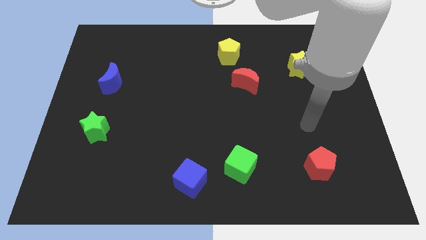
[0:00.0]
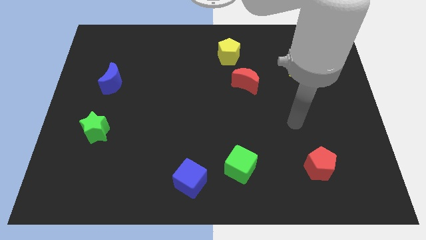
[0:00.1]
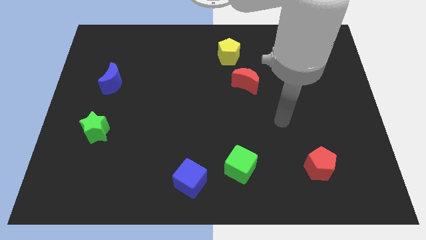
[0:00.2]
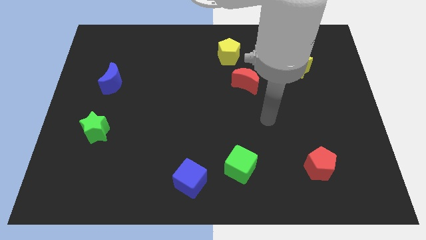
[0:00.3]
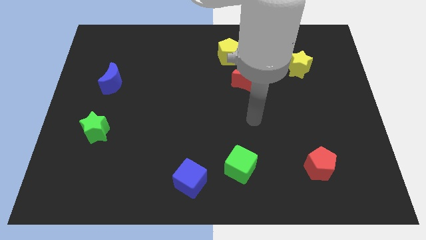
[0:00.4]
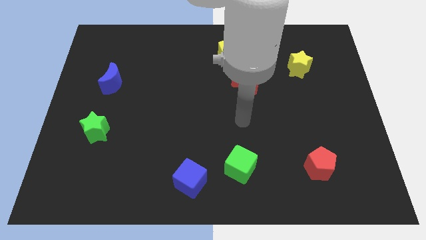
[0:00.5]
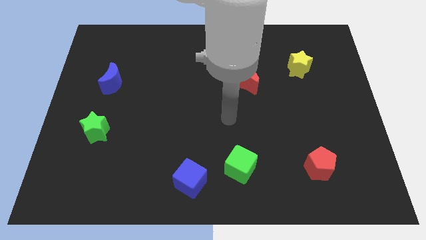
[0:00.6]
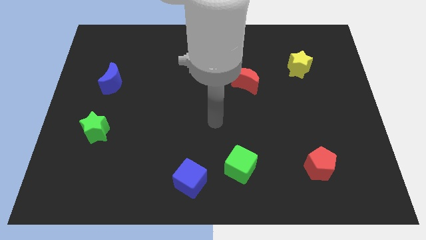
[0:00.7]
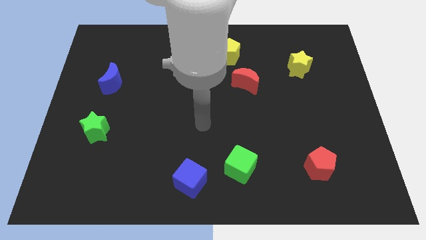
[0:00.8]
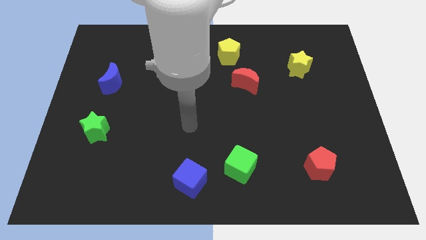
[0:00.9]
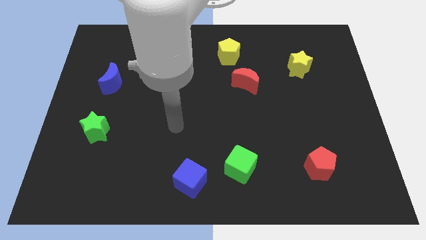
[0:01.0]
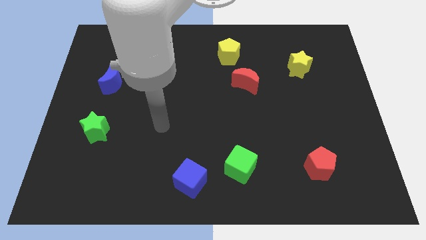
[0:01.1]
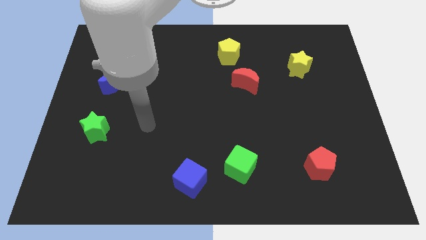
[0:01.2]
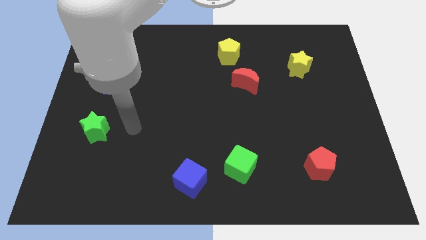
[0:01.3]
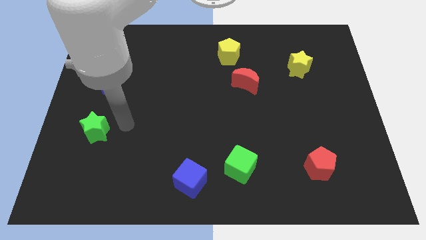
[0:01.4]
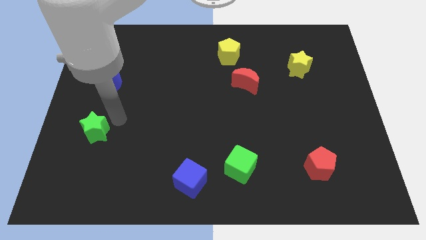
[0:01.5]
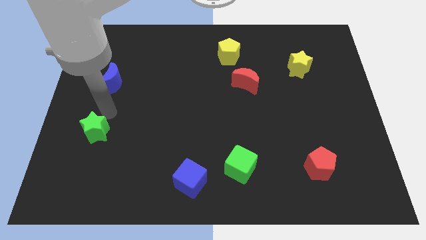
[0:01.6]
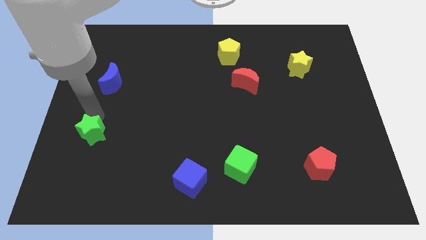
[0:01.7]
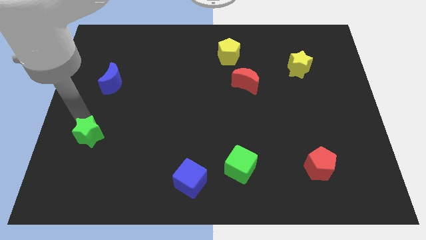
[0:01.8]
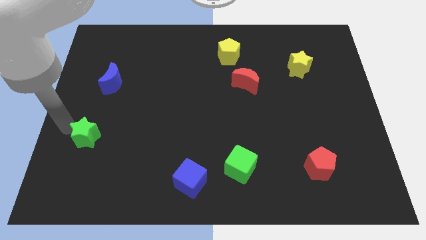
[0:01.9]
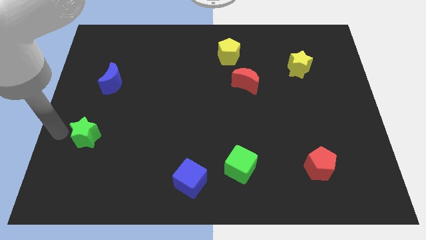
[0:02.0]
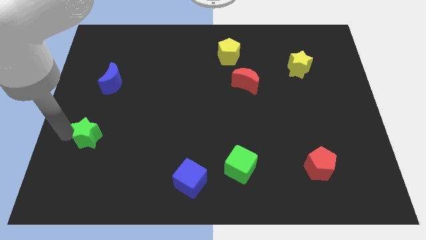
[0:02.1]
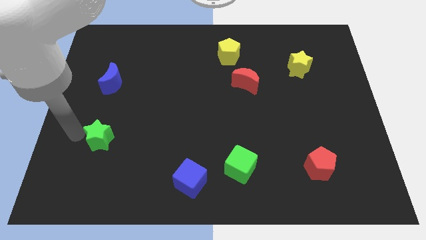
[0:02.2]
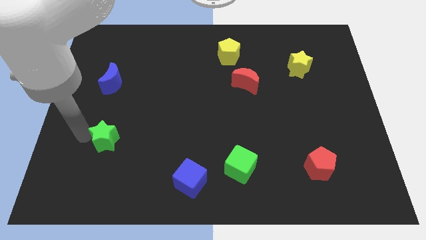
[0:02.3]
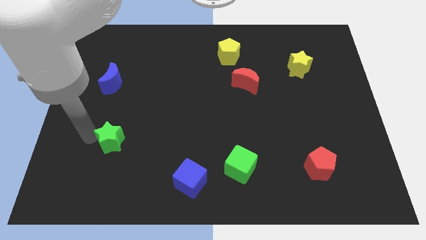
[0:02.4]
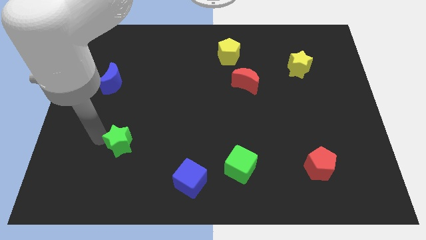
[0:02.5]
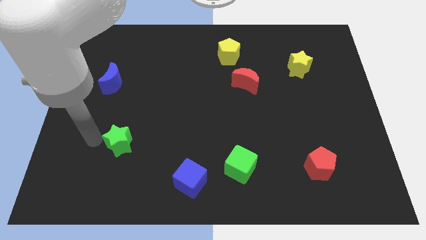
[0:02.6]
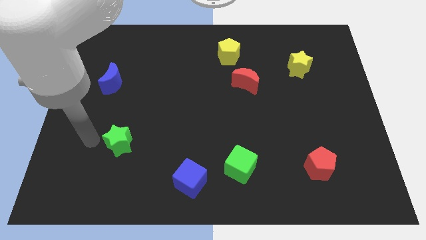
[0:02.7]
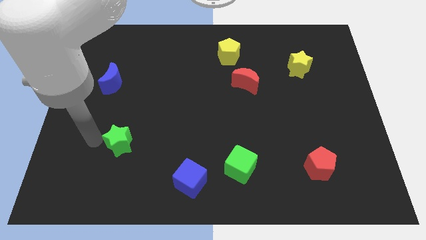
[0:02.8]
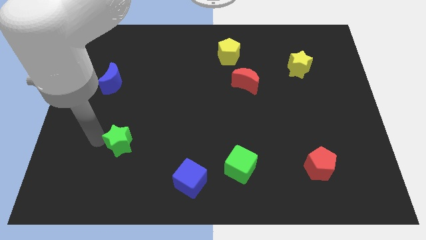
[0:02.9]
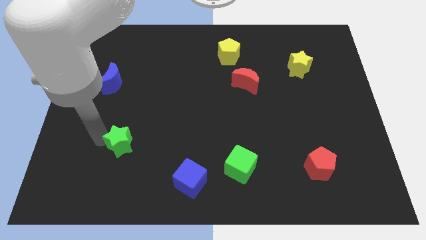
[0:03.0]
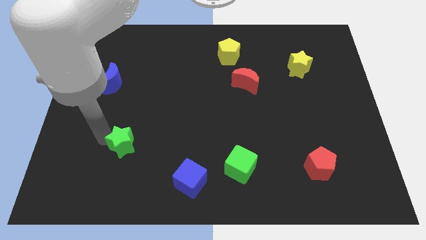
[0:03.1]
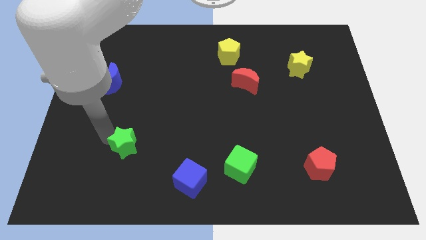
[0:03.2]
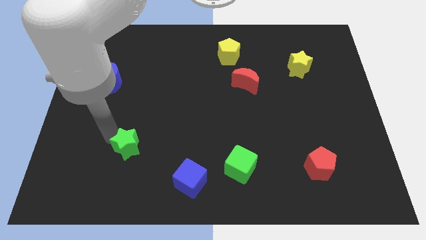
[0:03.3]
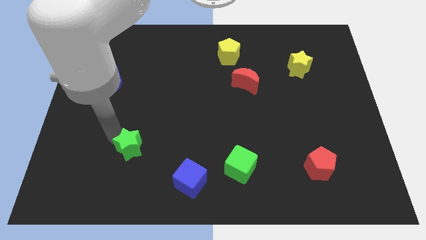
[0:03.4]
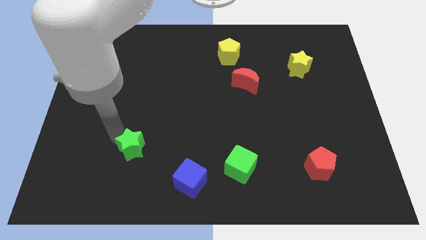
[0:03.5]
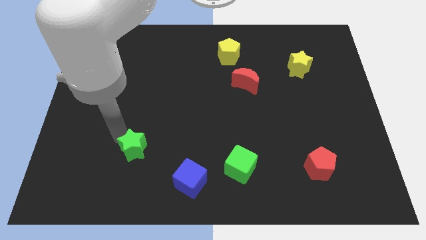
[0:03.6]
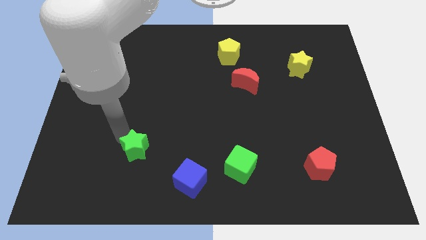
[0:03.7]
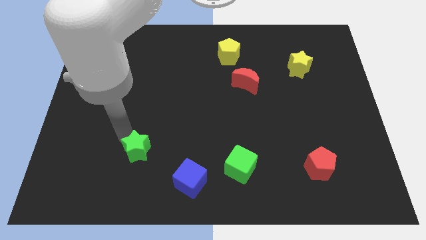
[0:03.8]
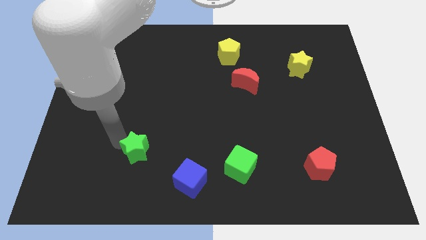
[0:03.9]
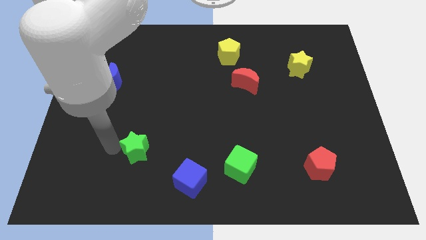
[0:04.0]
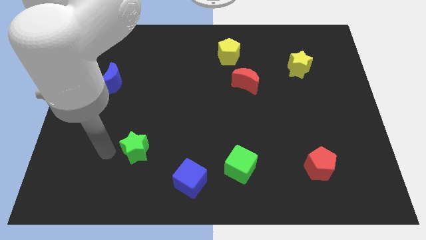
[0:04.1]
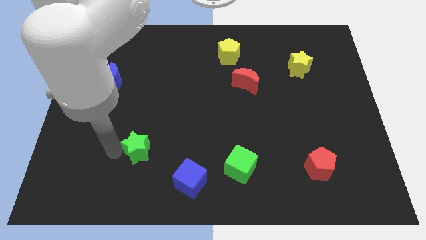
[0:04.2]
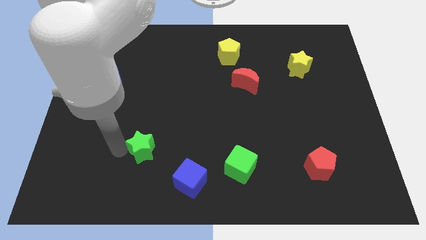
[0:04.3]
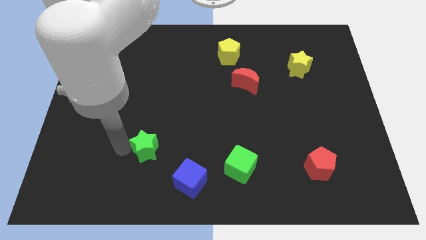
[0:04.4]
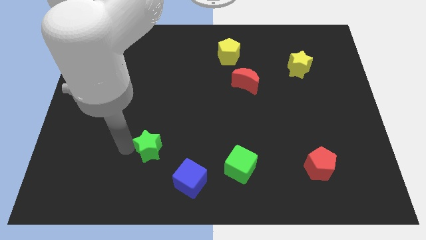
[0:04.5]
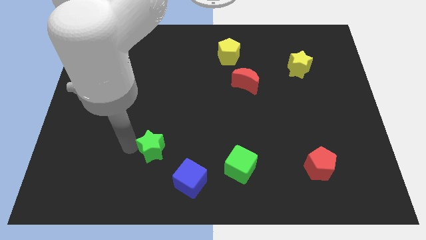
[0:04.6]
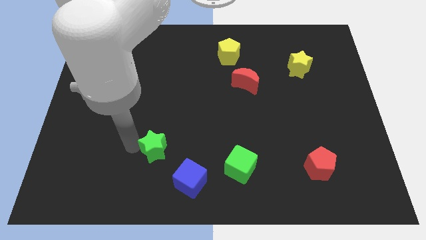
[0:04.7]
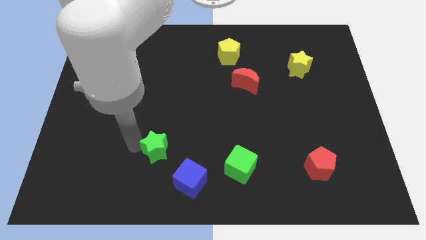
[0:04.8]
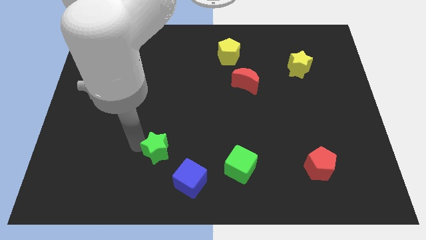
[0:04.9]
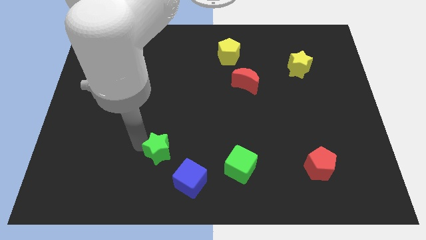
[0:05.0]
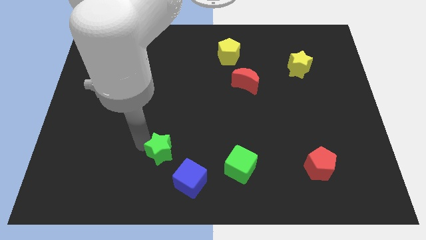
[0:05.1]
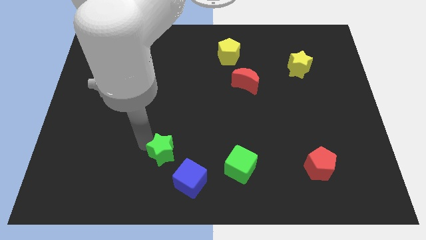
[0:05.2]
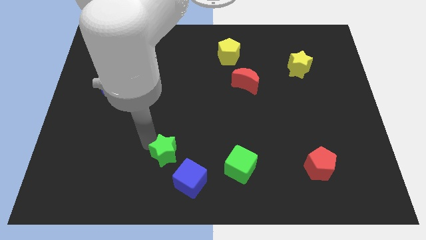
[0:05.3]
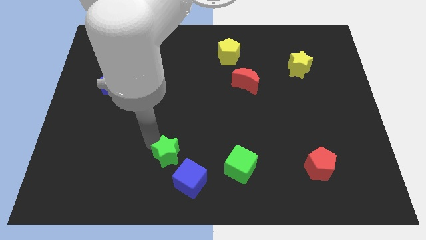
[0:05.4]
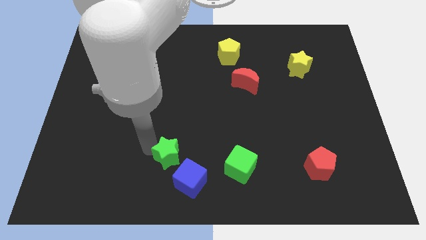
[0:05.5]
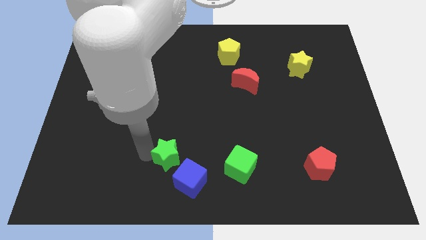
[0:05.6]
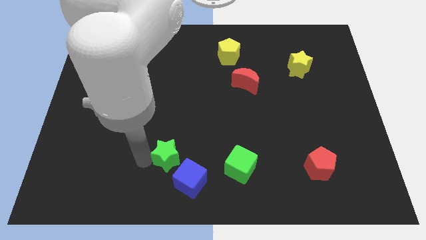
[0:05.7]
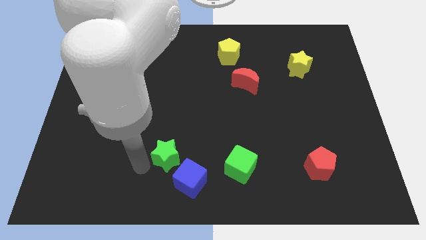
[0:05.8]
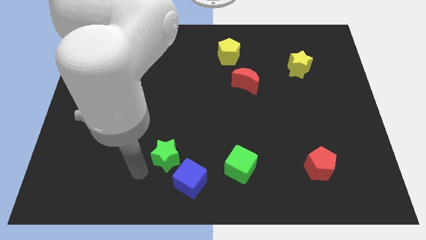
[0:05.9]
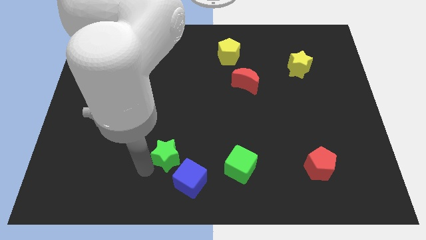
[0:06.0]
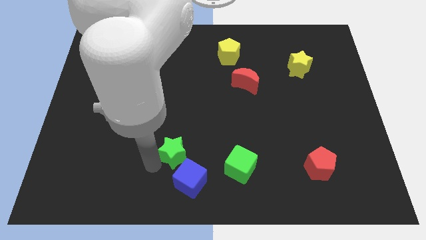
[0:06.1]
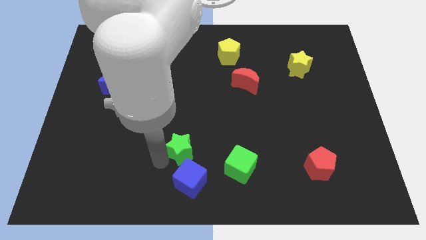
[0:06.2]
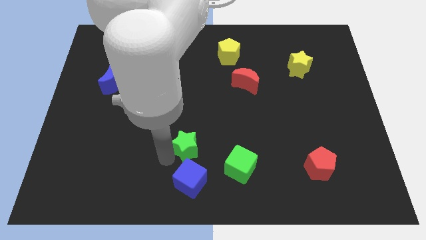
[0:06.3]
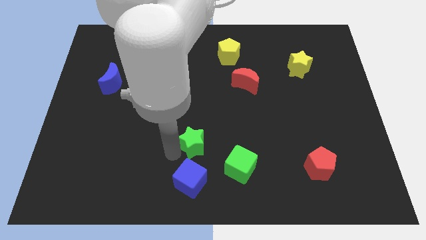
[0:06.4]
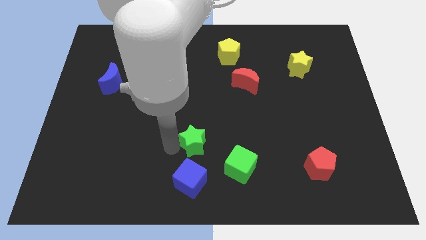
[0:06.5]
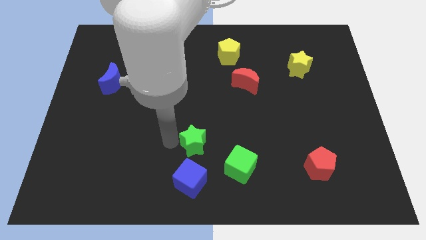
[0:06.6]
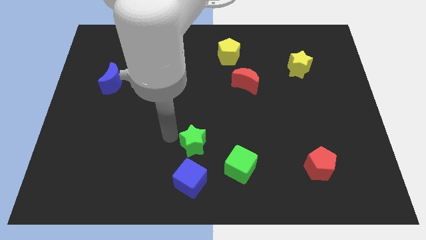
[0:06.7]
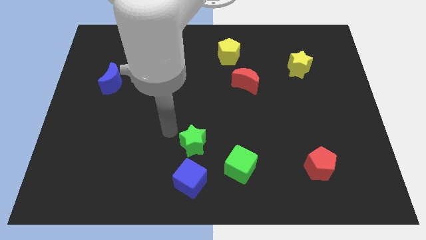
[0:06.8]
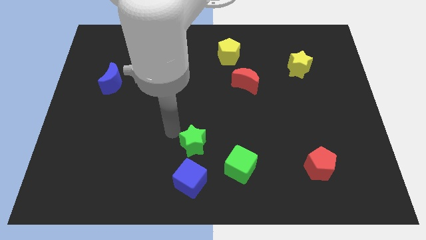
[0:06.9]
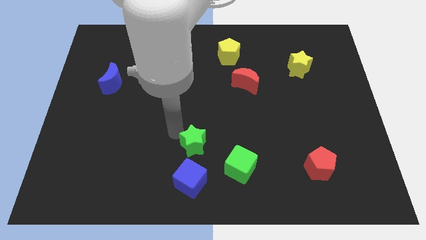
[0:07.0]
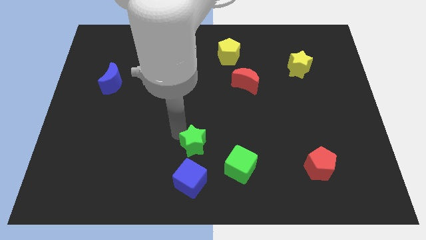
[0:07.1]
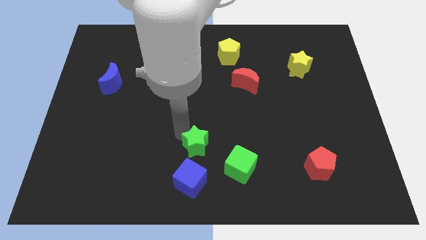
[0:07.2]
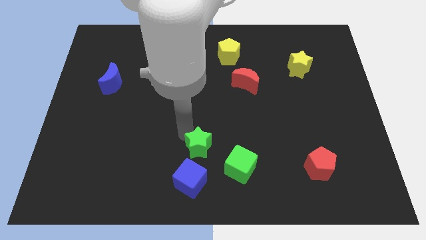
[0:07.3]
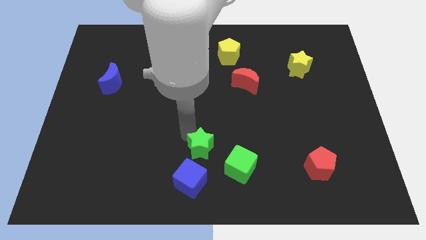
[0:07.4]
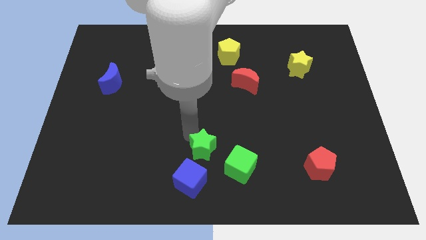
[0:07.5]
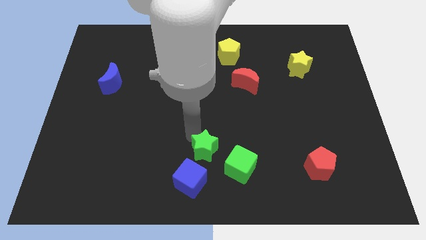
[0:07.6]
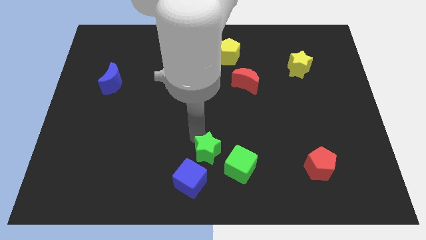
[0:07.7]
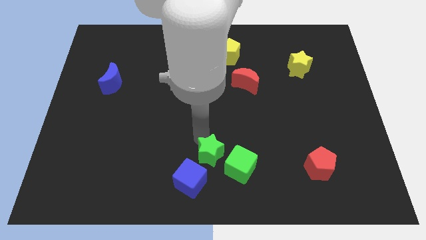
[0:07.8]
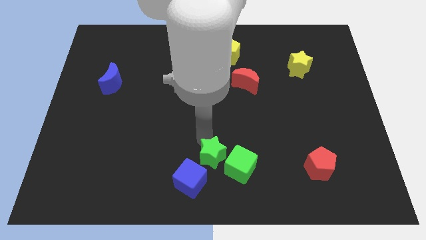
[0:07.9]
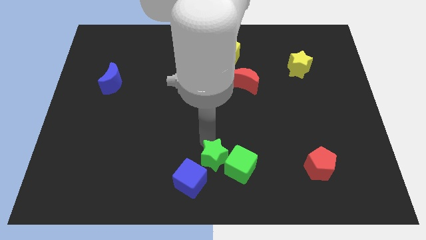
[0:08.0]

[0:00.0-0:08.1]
put the green star to the green cube
